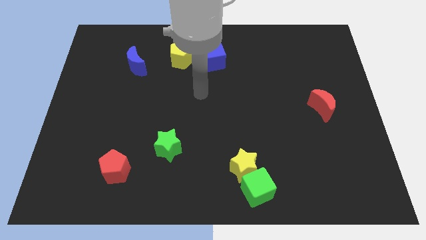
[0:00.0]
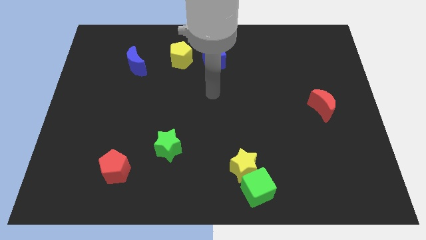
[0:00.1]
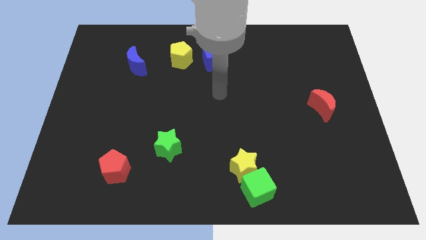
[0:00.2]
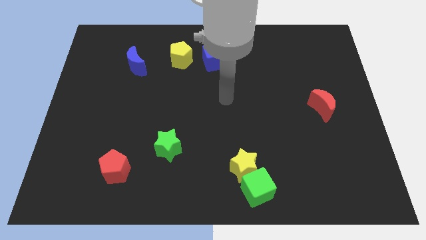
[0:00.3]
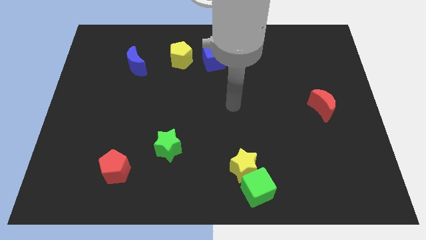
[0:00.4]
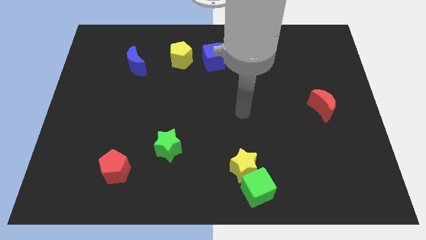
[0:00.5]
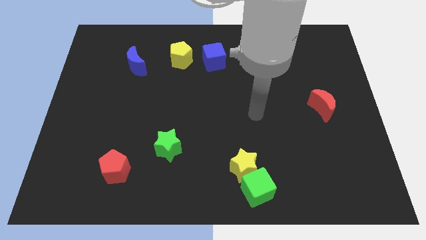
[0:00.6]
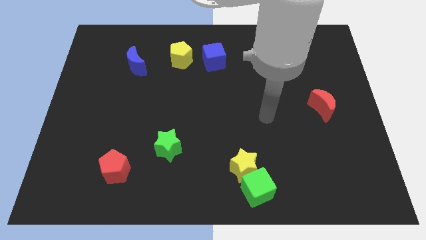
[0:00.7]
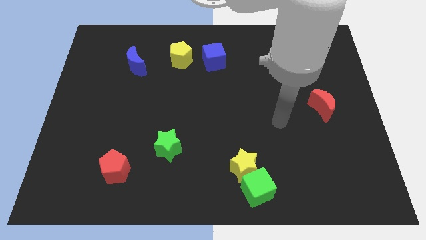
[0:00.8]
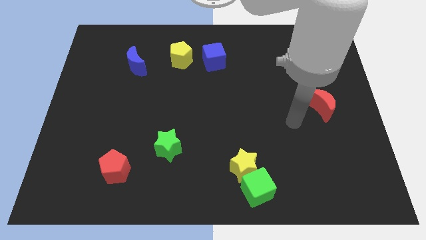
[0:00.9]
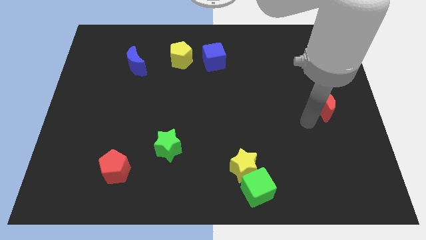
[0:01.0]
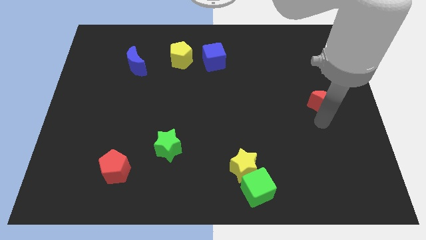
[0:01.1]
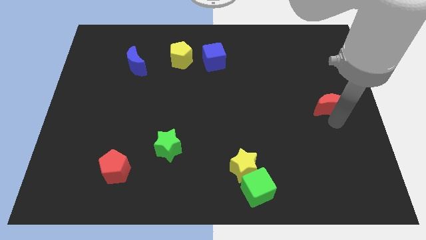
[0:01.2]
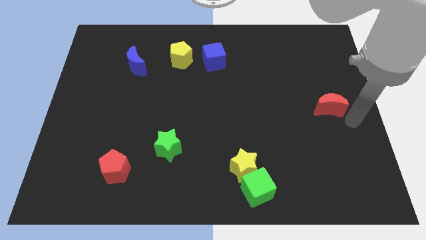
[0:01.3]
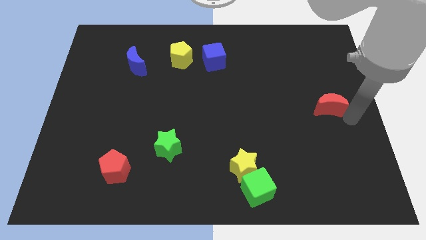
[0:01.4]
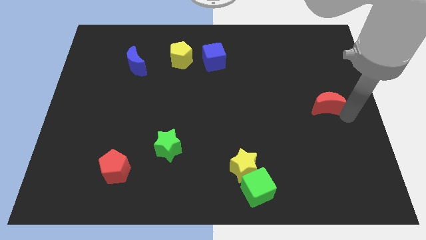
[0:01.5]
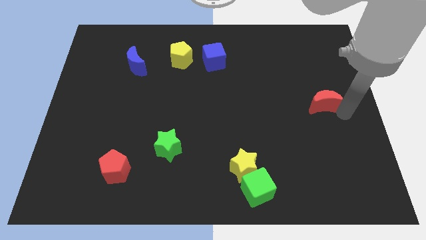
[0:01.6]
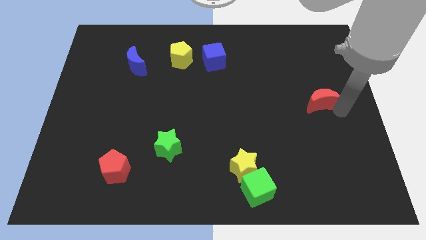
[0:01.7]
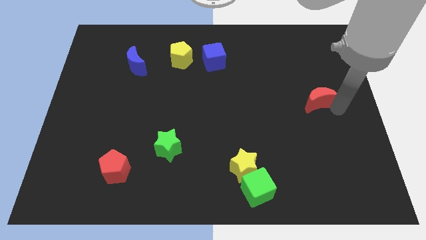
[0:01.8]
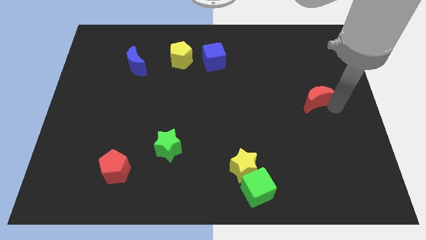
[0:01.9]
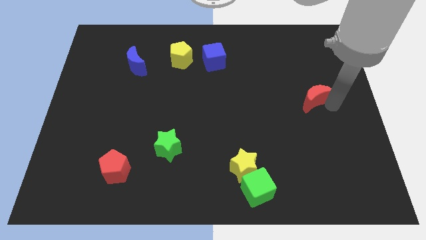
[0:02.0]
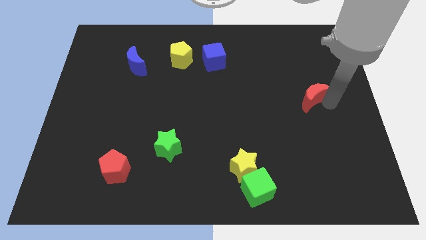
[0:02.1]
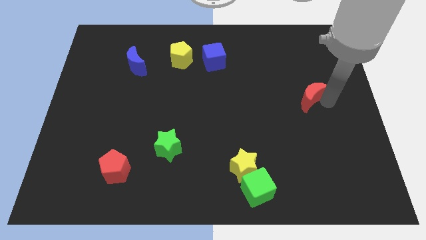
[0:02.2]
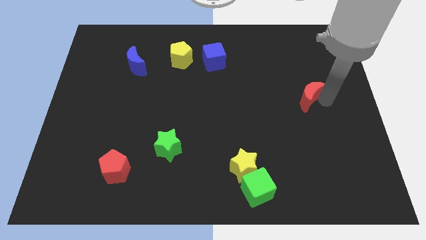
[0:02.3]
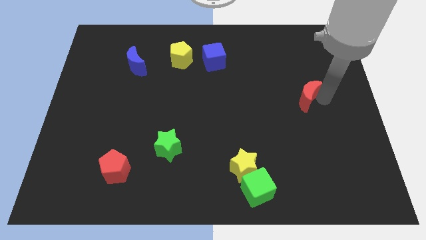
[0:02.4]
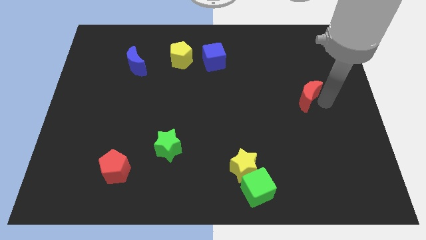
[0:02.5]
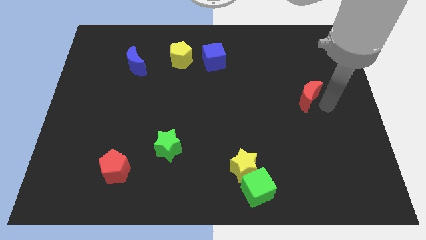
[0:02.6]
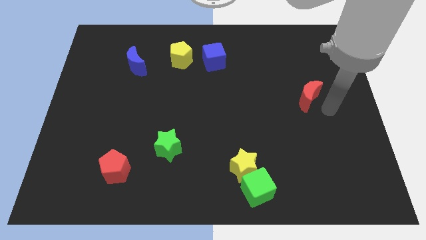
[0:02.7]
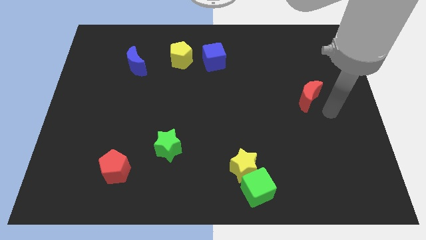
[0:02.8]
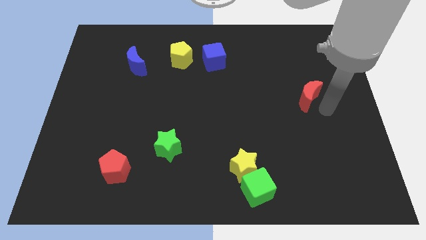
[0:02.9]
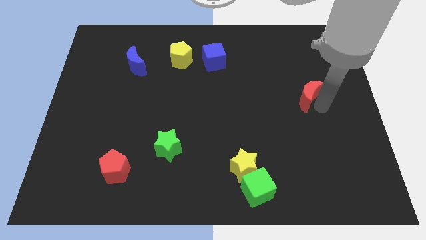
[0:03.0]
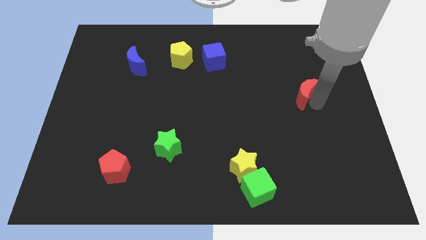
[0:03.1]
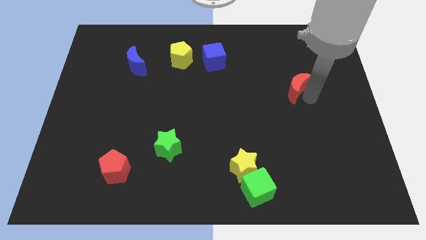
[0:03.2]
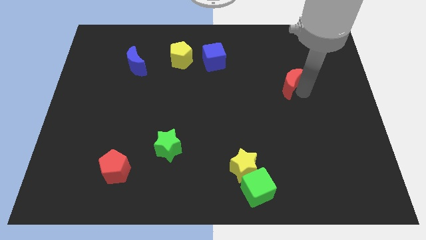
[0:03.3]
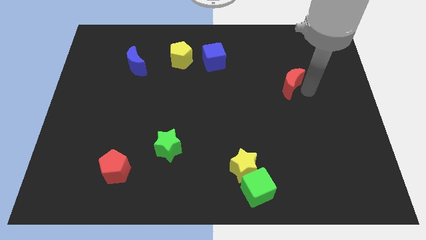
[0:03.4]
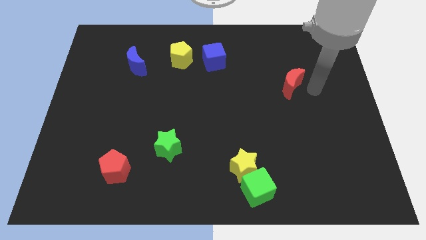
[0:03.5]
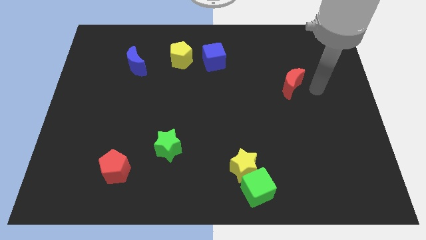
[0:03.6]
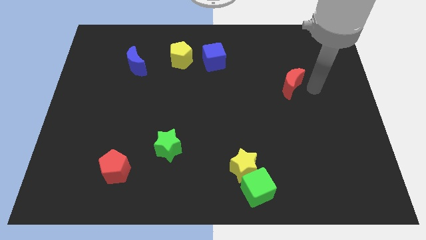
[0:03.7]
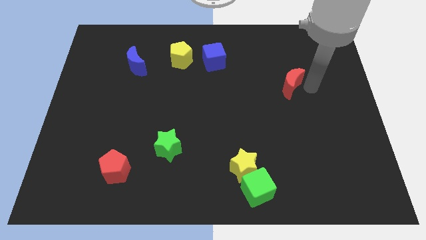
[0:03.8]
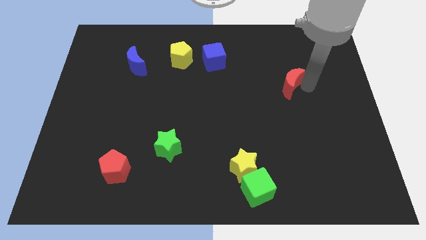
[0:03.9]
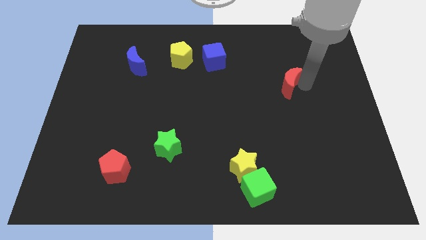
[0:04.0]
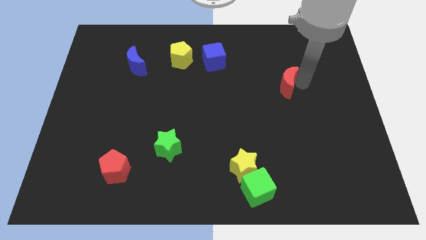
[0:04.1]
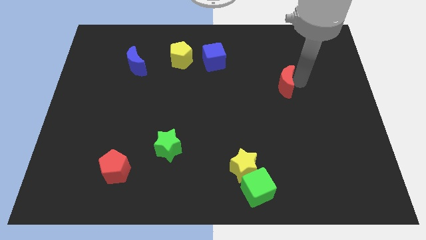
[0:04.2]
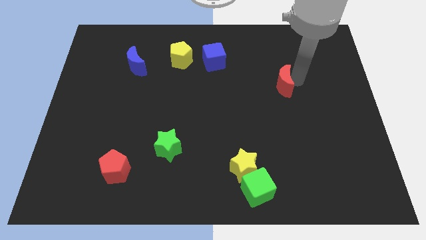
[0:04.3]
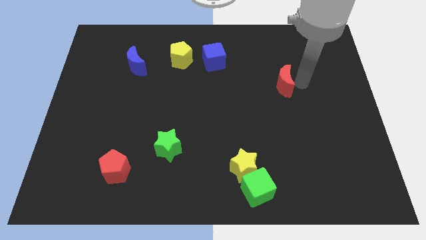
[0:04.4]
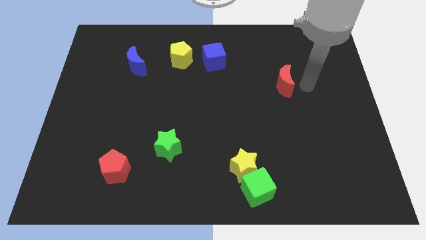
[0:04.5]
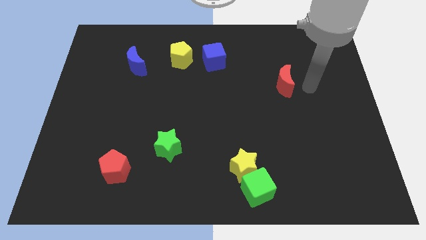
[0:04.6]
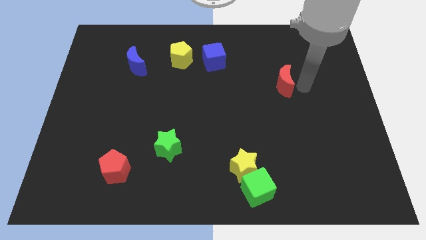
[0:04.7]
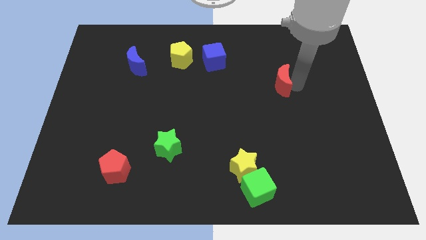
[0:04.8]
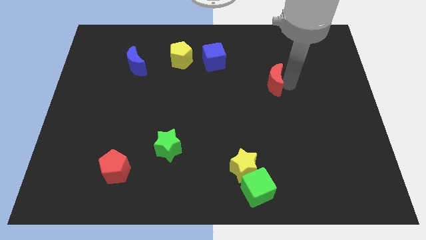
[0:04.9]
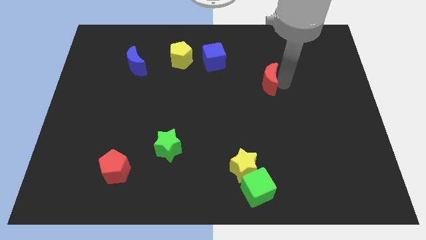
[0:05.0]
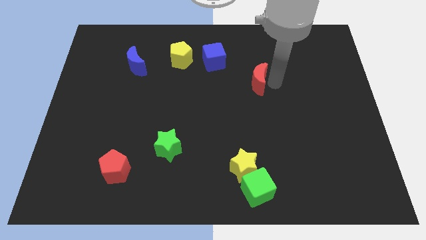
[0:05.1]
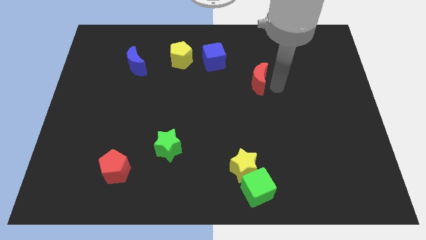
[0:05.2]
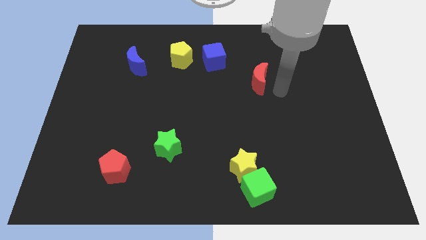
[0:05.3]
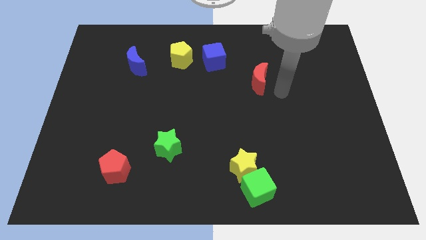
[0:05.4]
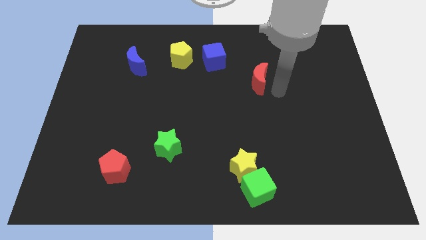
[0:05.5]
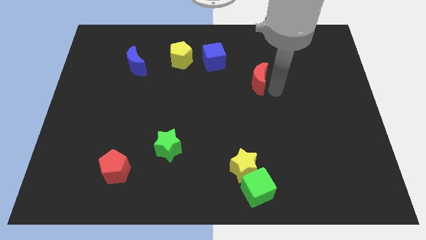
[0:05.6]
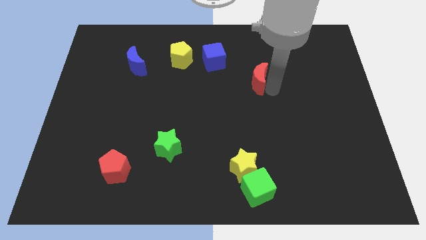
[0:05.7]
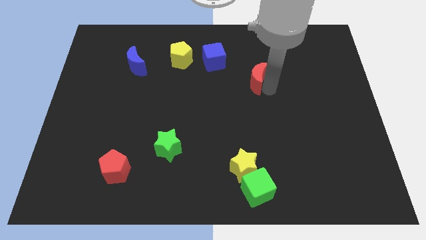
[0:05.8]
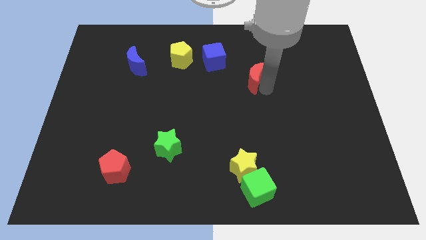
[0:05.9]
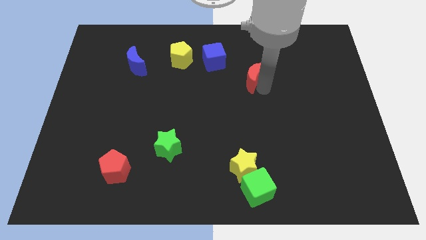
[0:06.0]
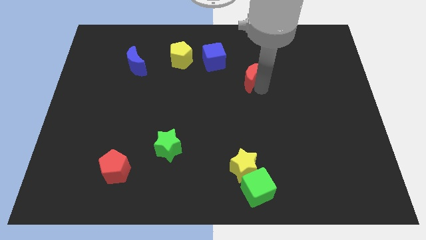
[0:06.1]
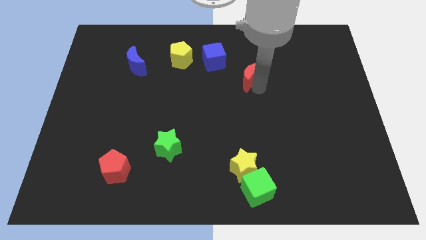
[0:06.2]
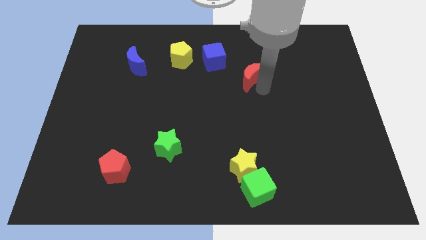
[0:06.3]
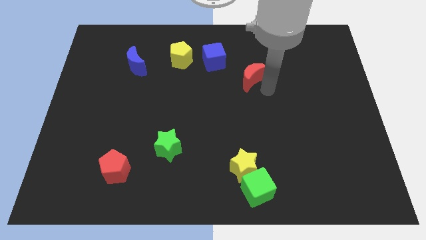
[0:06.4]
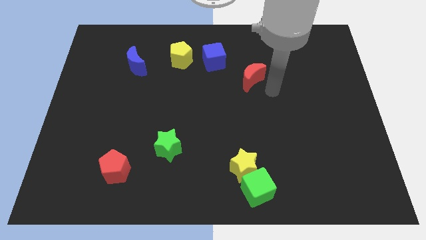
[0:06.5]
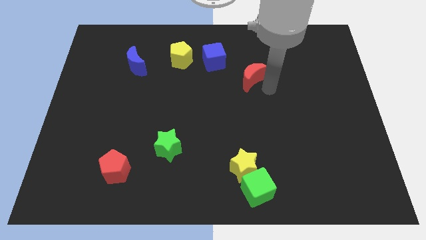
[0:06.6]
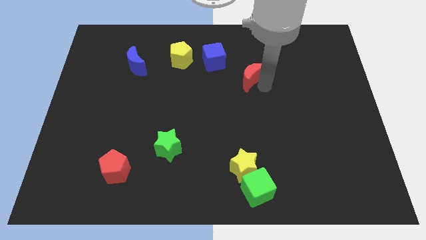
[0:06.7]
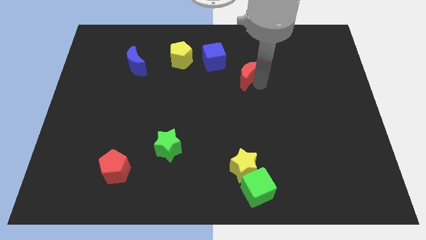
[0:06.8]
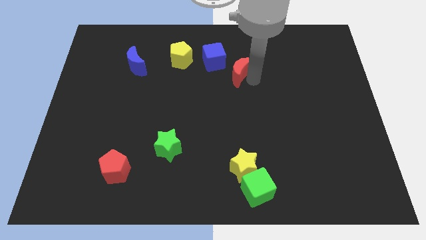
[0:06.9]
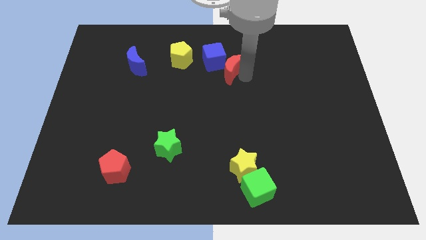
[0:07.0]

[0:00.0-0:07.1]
move the red moon close to the blue cube
